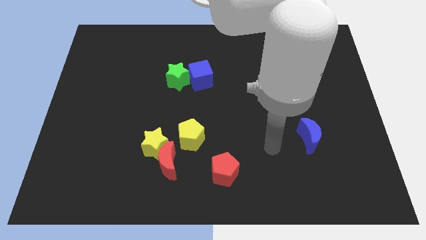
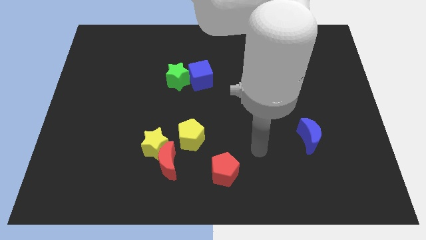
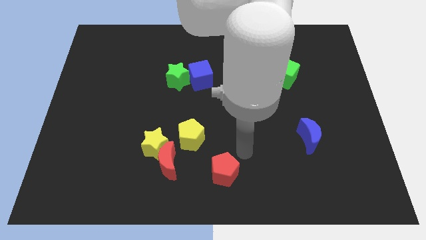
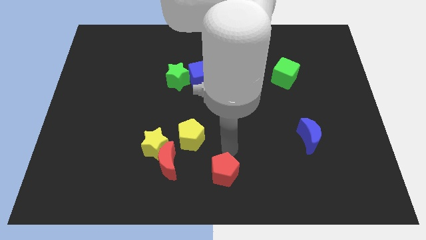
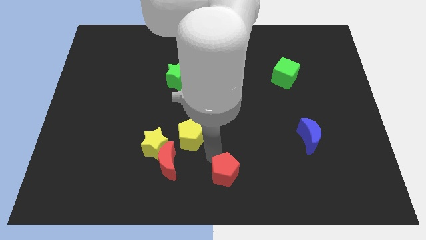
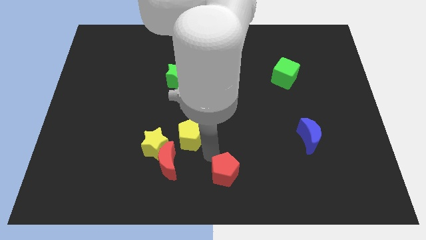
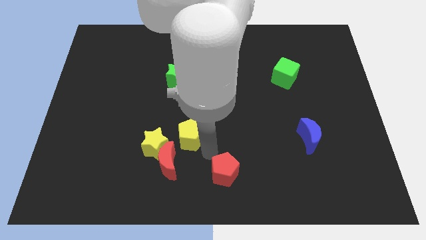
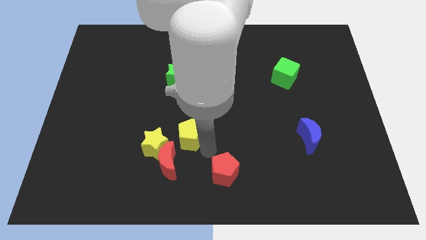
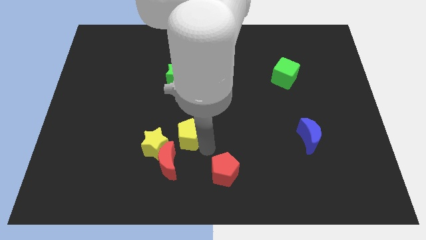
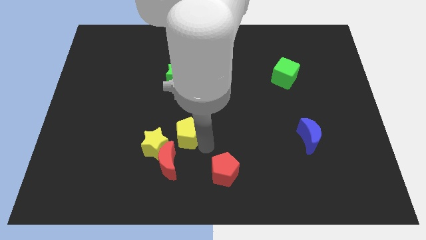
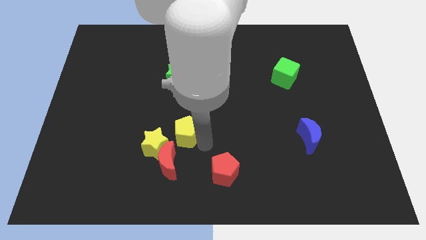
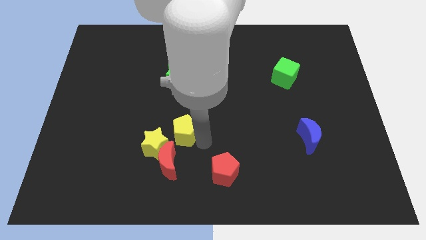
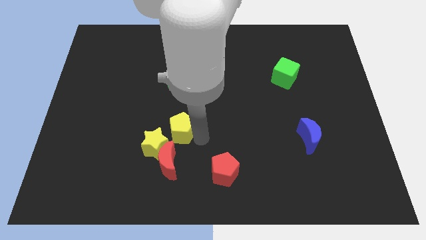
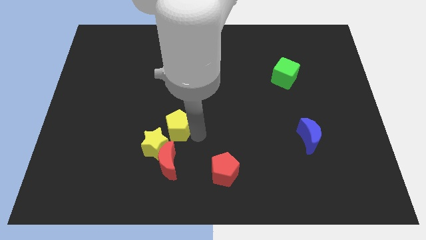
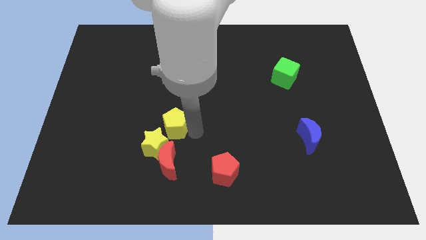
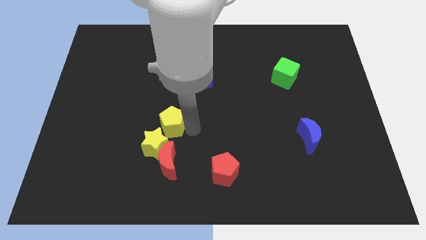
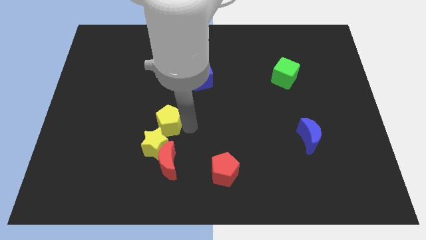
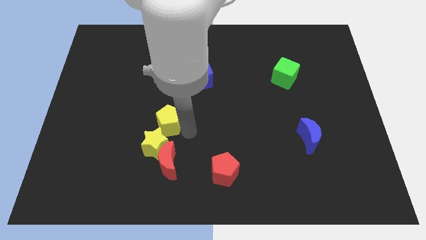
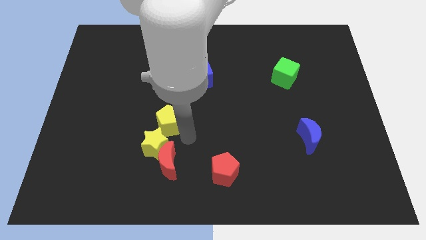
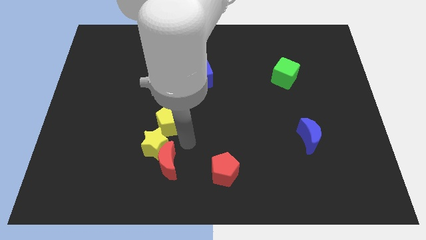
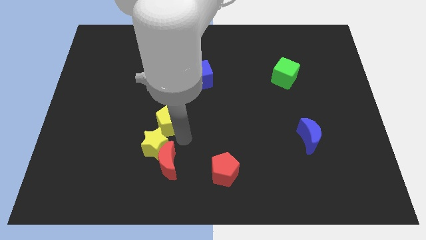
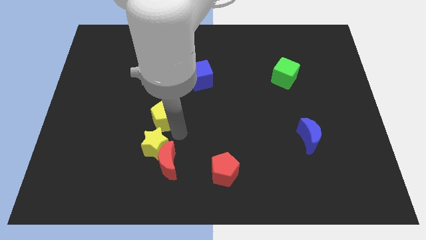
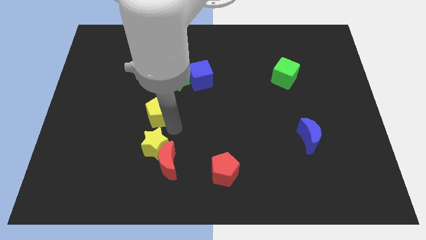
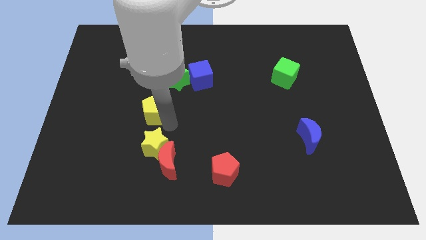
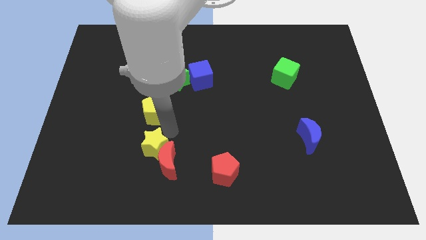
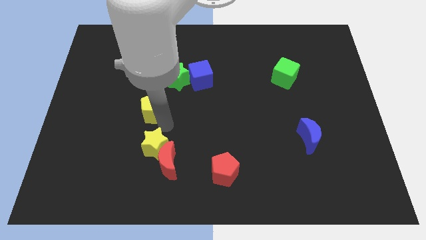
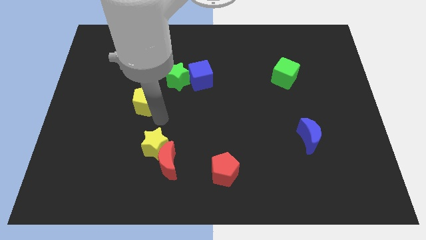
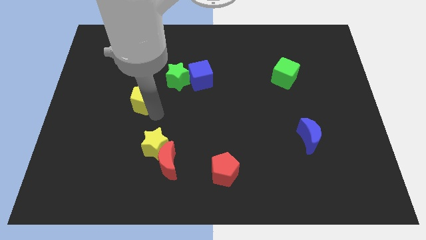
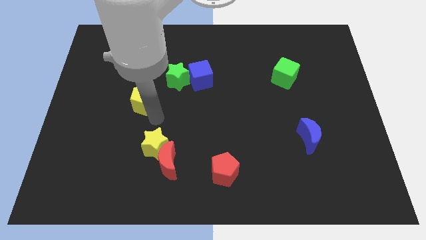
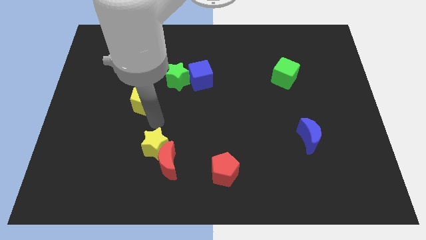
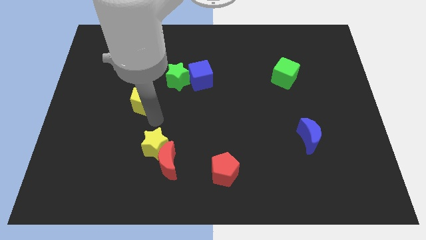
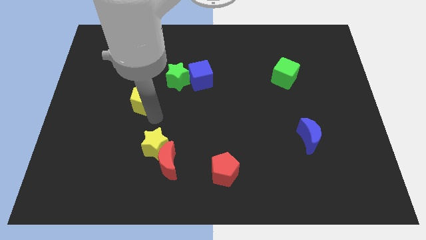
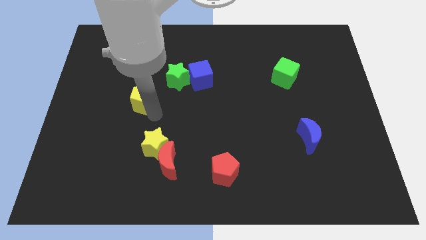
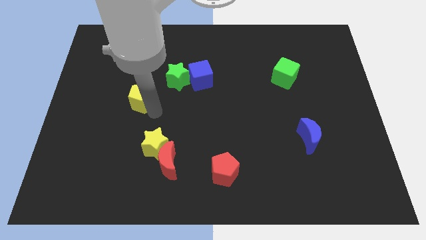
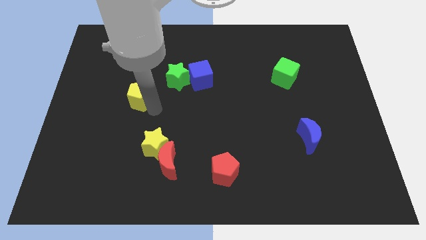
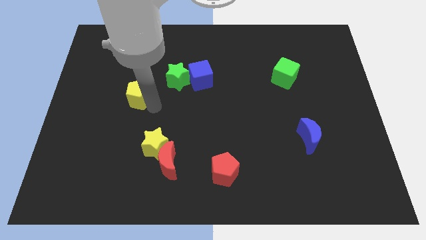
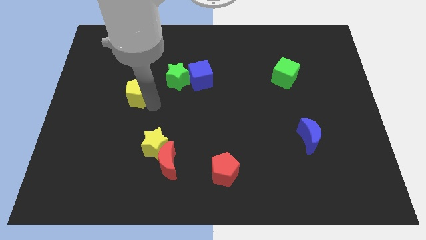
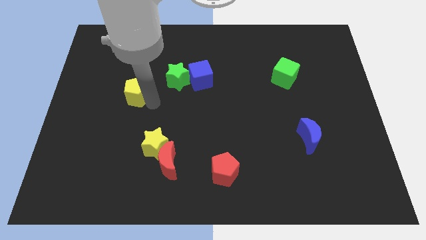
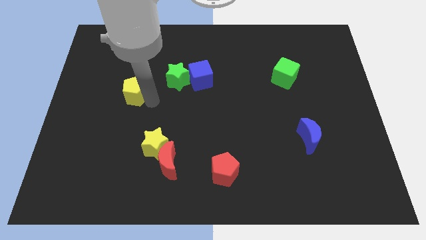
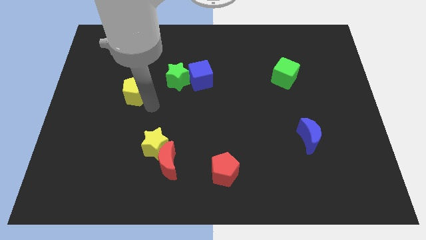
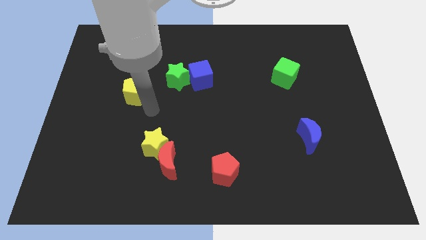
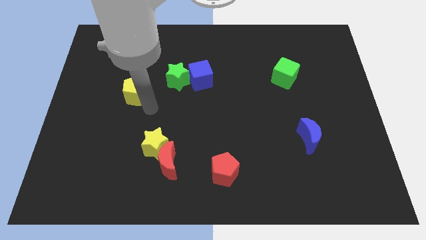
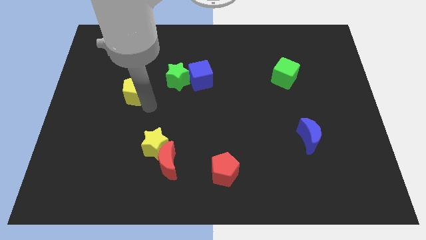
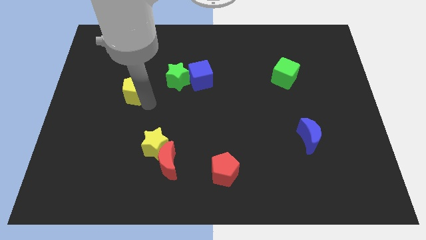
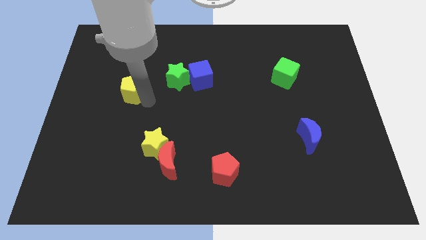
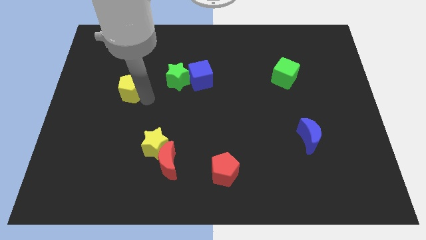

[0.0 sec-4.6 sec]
push the yellow pentagon up and to the left

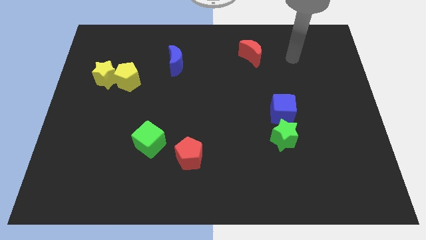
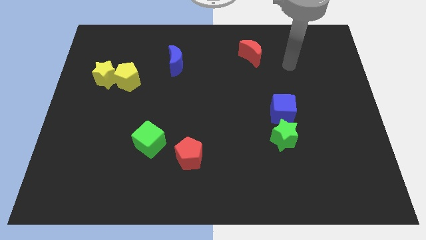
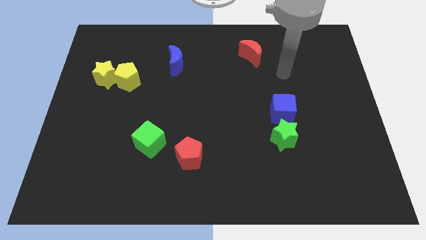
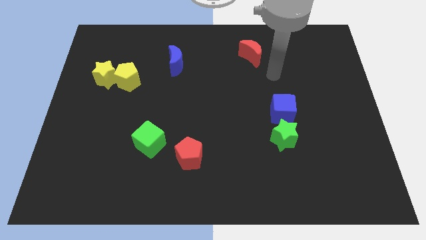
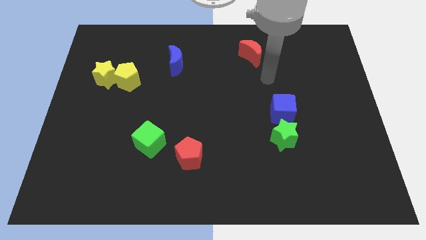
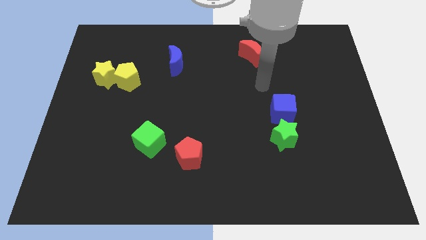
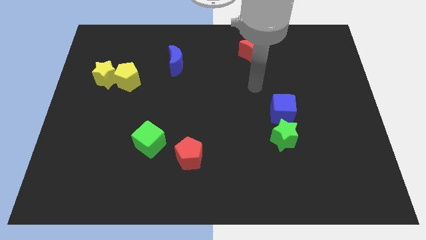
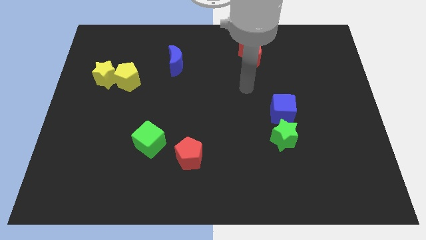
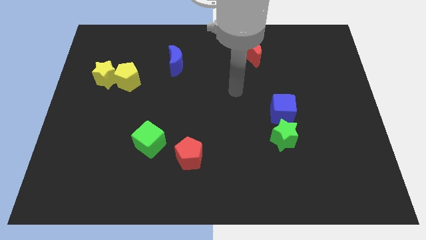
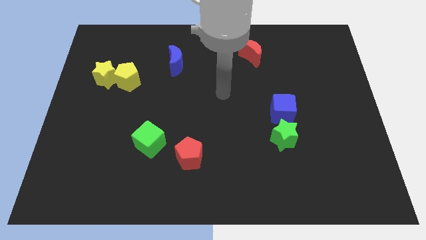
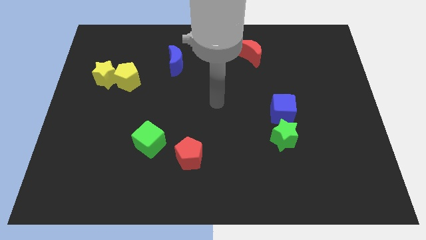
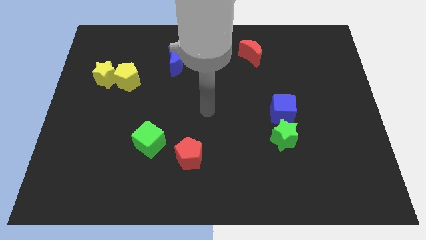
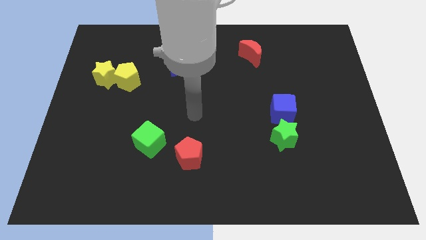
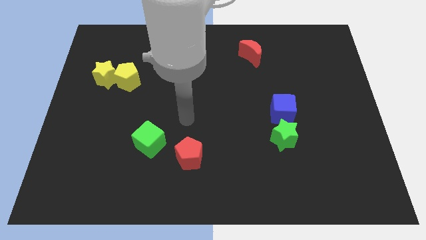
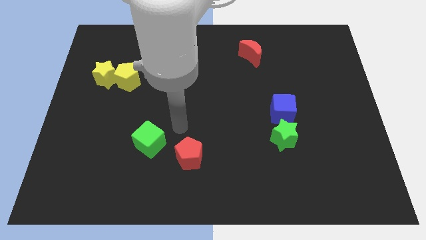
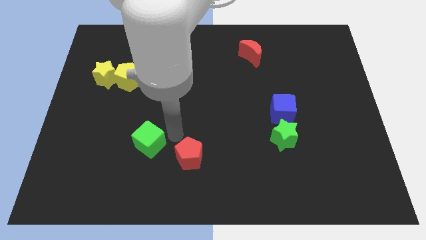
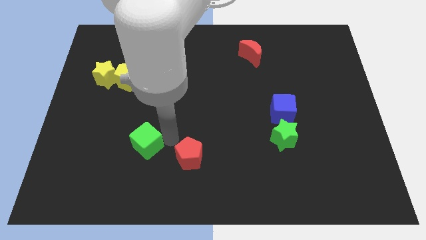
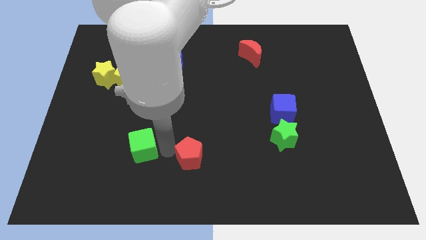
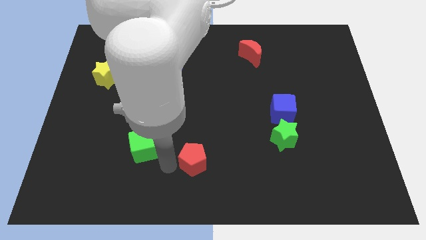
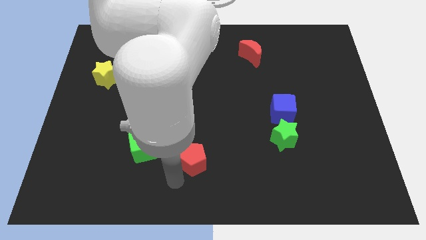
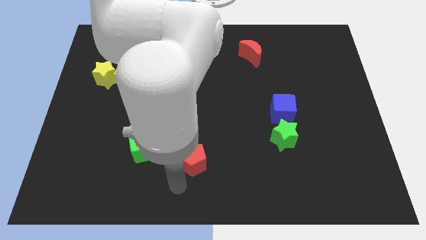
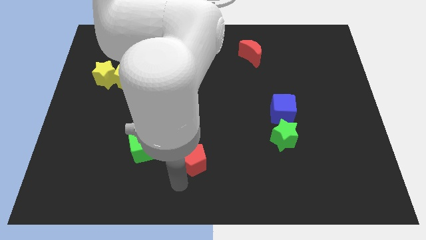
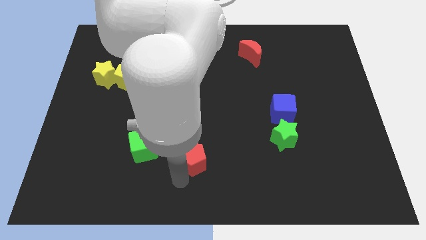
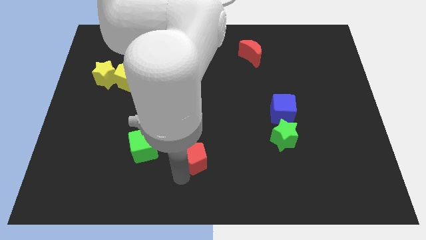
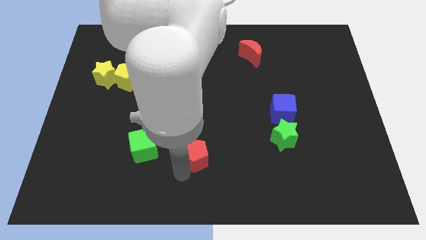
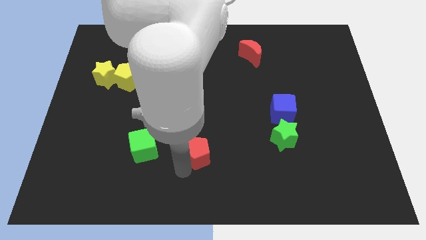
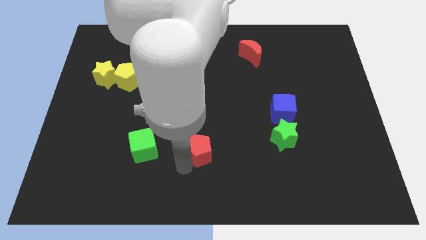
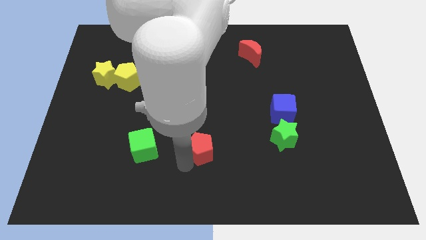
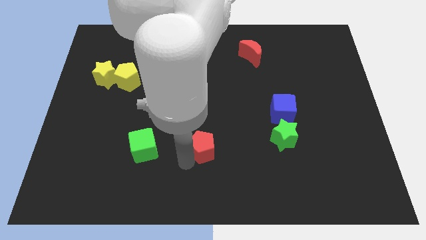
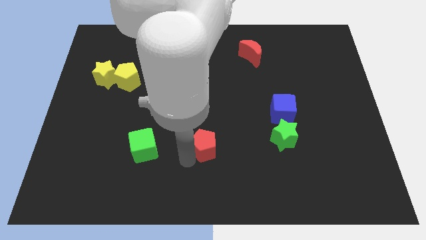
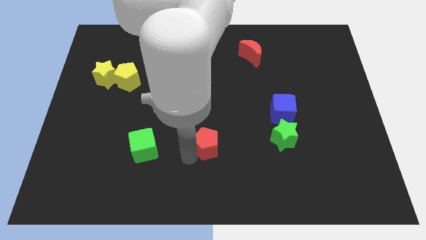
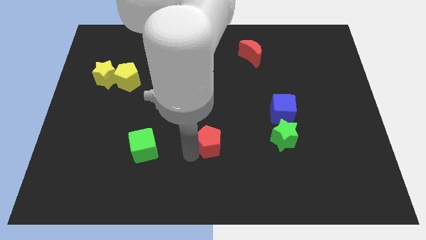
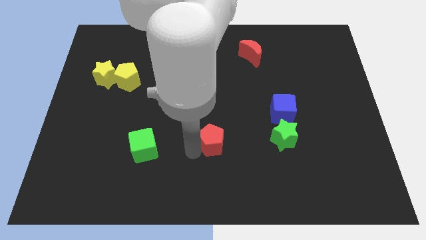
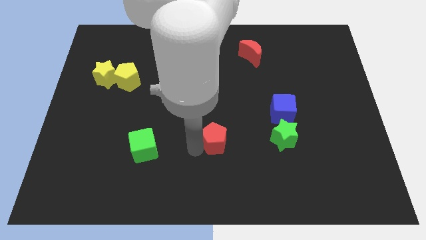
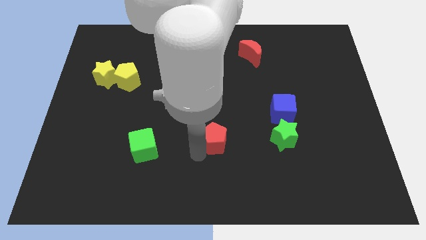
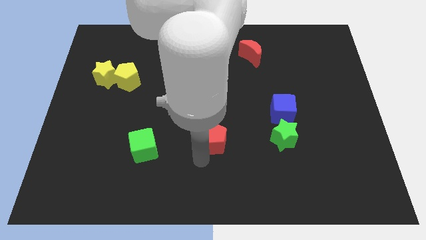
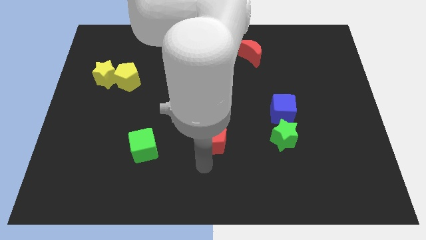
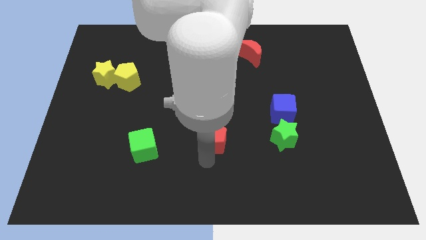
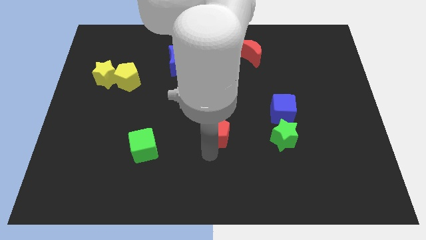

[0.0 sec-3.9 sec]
move the red pentagon upwards and to the right diagonally somewhat
